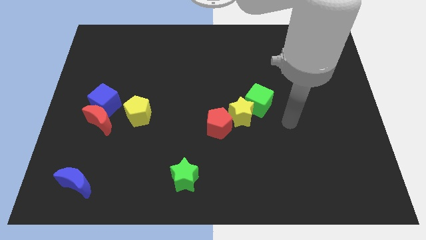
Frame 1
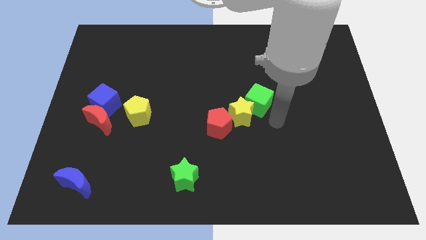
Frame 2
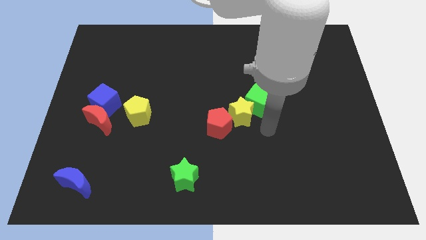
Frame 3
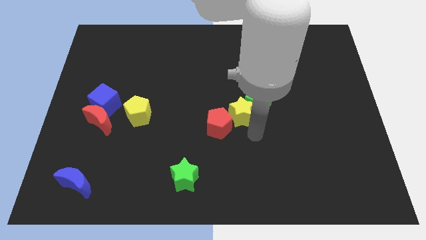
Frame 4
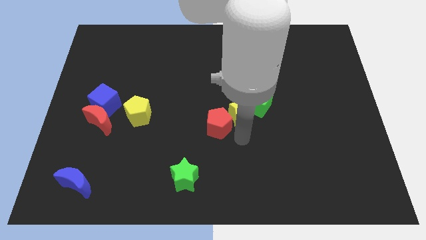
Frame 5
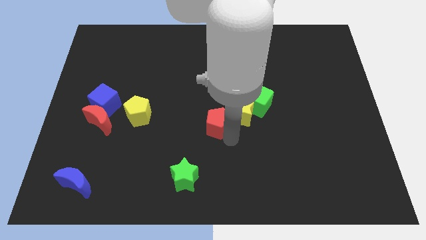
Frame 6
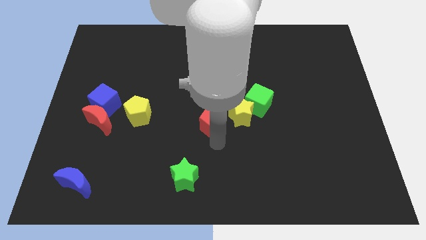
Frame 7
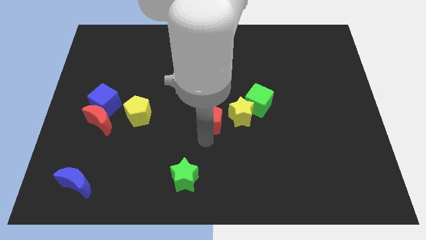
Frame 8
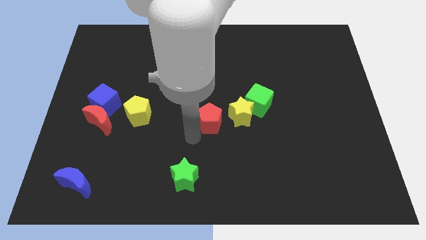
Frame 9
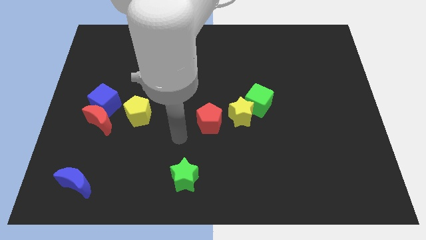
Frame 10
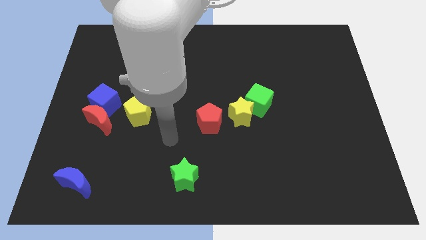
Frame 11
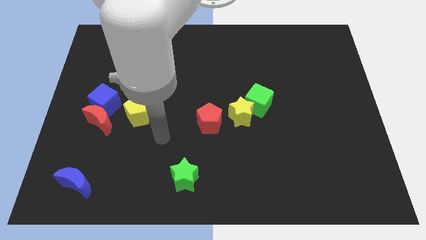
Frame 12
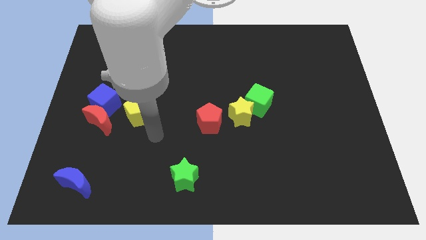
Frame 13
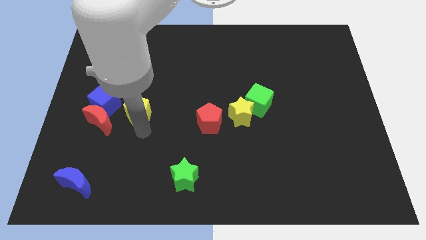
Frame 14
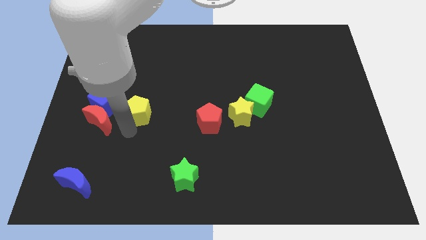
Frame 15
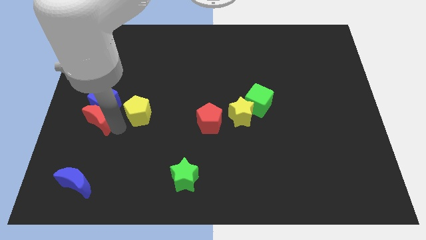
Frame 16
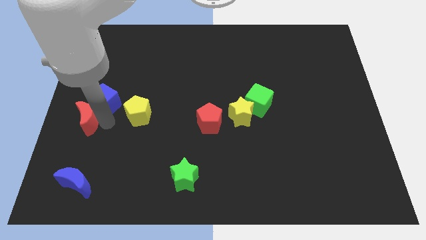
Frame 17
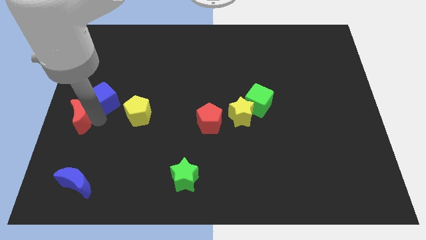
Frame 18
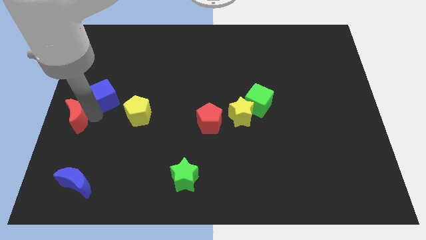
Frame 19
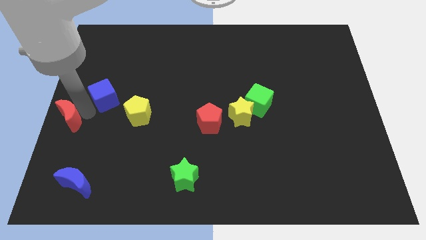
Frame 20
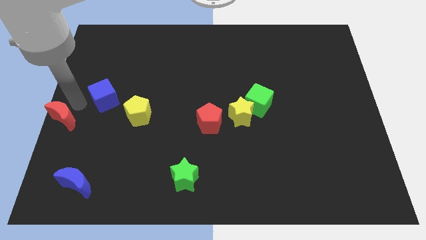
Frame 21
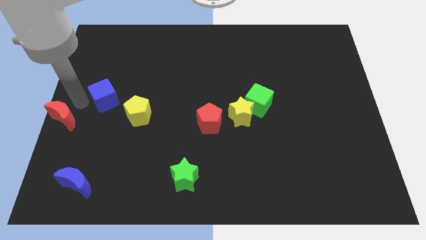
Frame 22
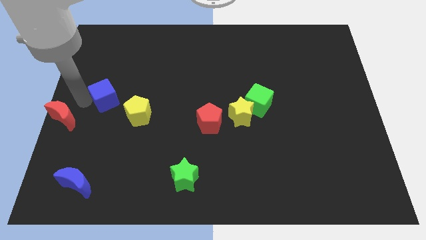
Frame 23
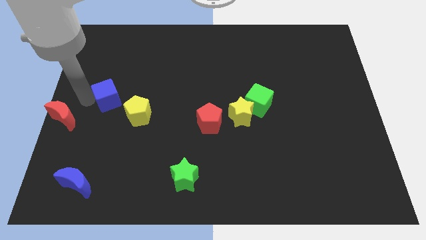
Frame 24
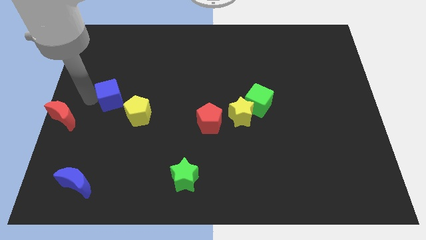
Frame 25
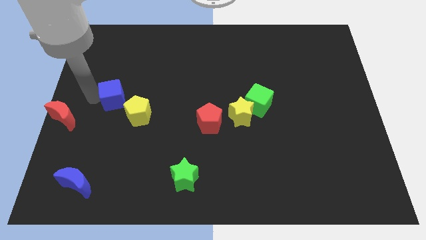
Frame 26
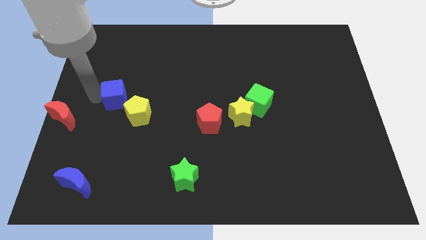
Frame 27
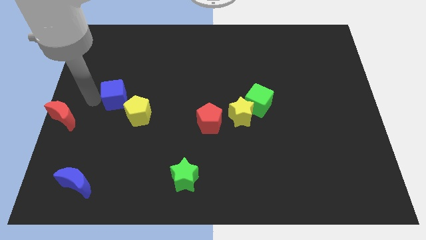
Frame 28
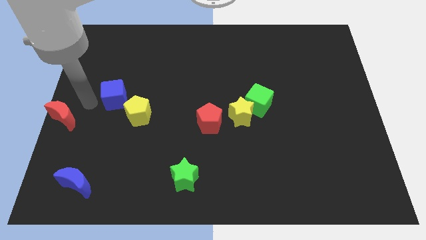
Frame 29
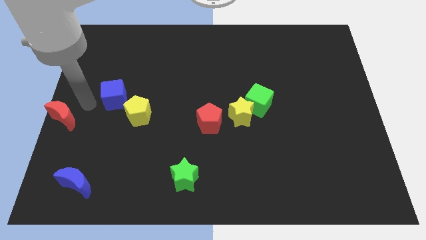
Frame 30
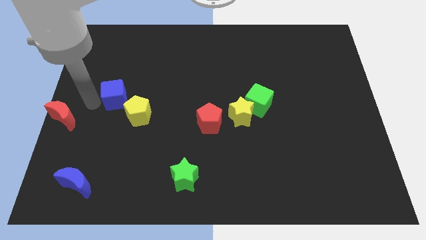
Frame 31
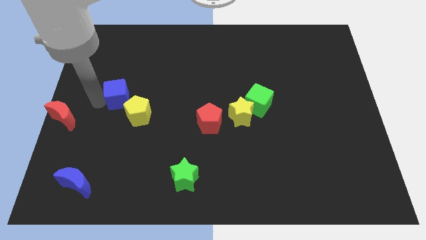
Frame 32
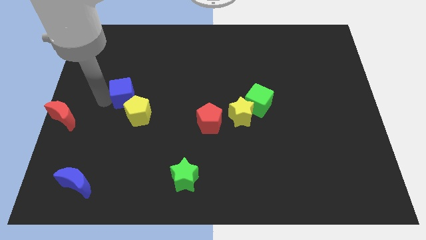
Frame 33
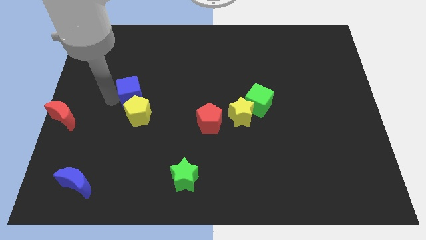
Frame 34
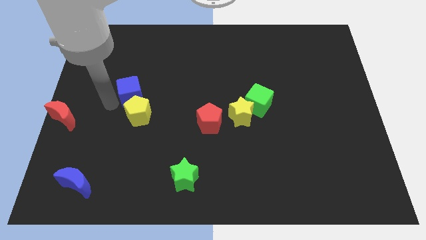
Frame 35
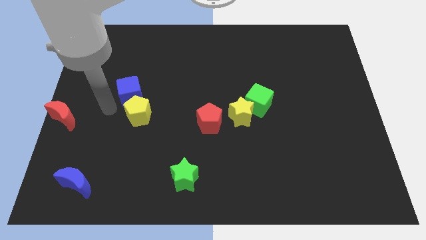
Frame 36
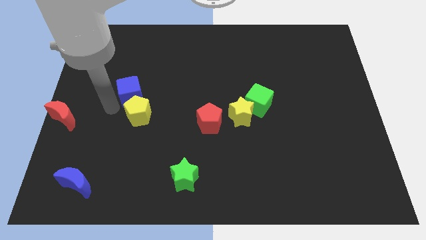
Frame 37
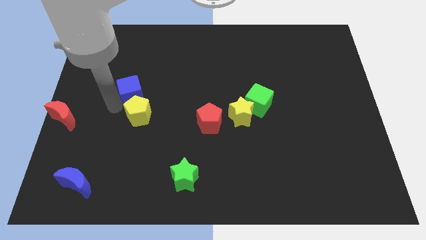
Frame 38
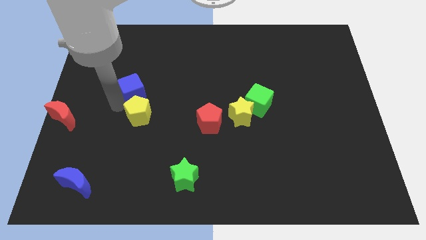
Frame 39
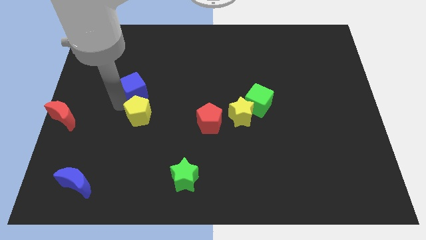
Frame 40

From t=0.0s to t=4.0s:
move the blue cube up and to the right diagonally somewhat

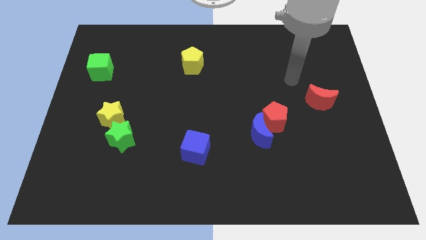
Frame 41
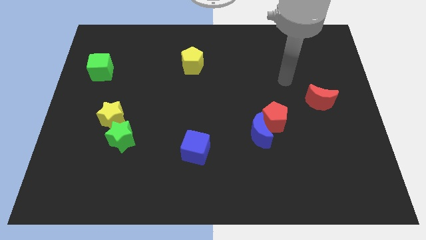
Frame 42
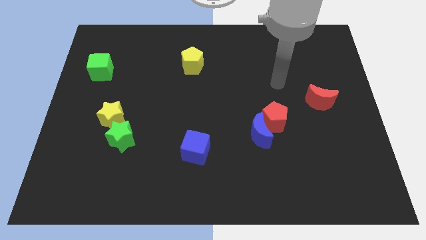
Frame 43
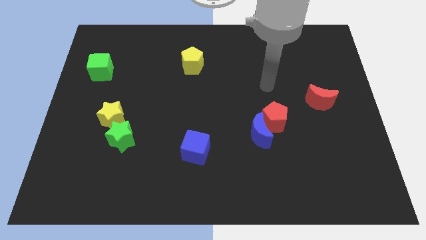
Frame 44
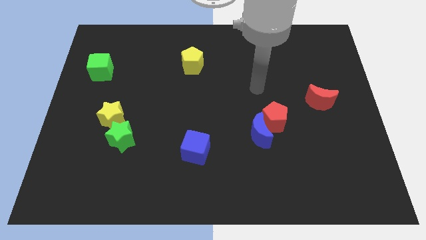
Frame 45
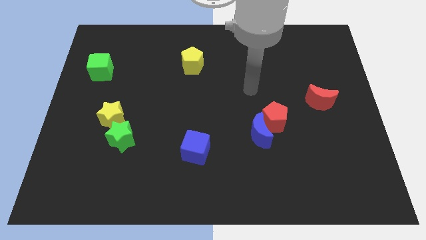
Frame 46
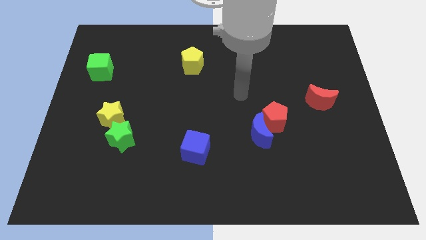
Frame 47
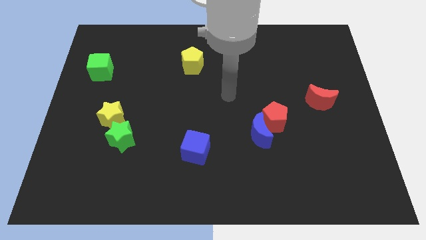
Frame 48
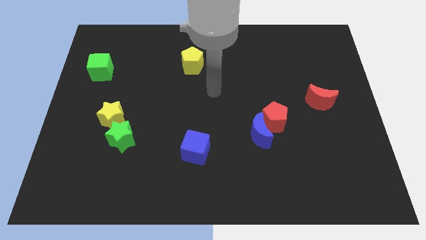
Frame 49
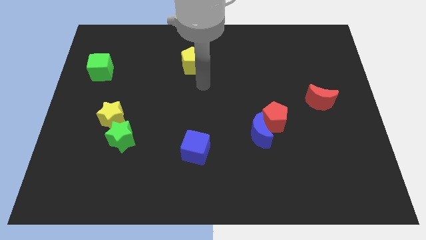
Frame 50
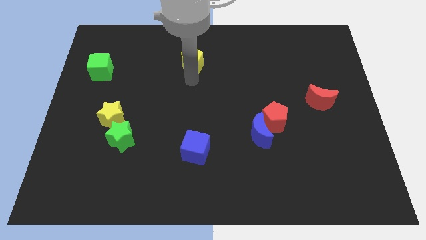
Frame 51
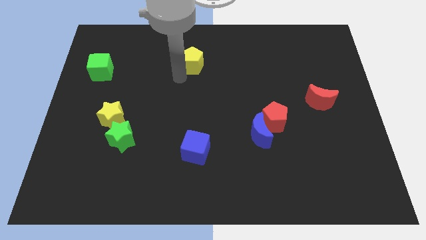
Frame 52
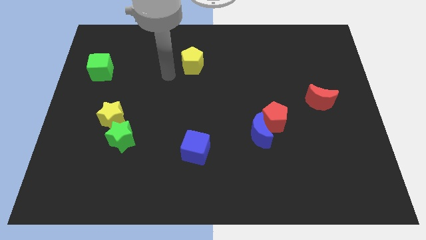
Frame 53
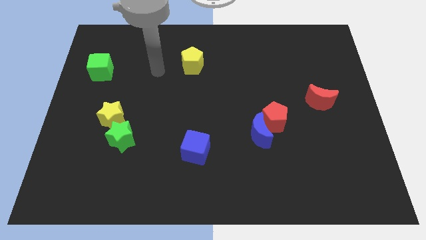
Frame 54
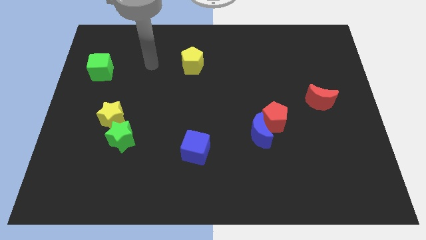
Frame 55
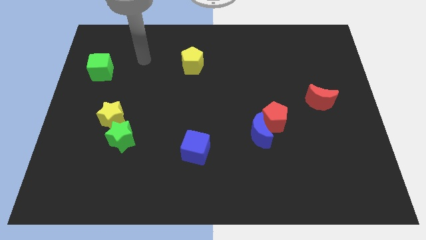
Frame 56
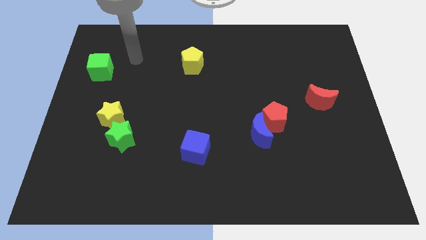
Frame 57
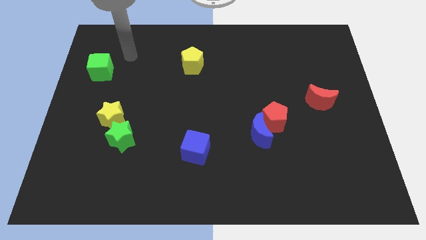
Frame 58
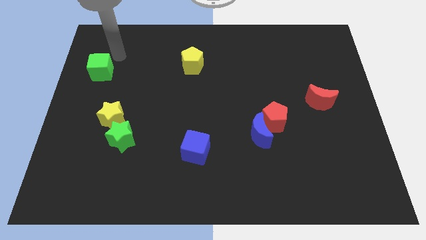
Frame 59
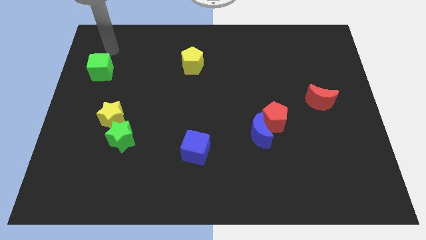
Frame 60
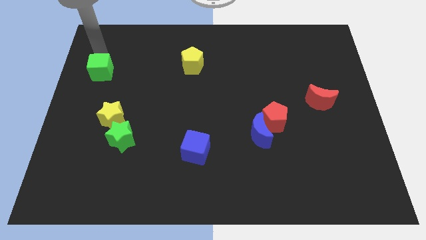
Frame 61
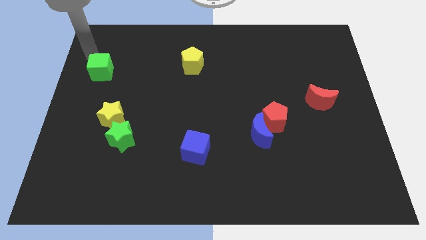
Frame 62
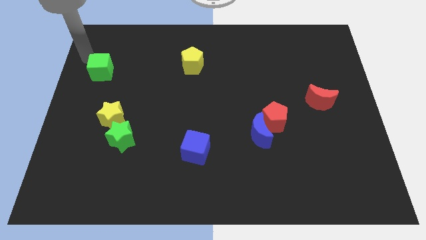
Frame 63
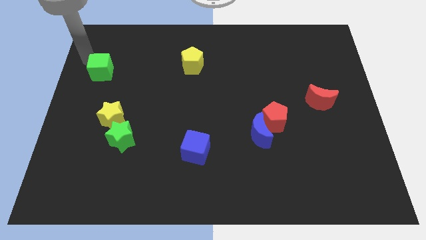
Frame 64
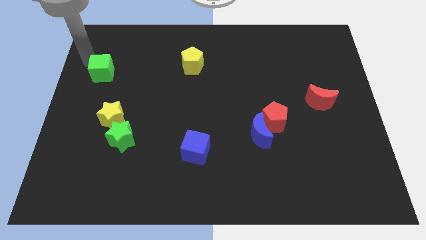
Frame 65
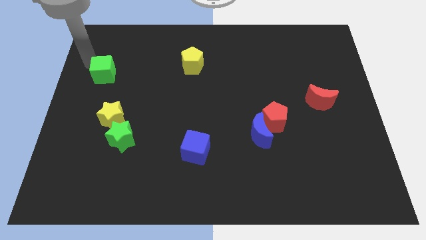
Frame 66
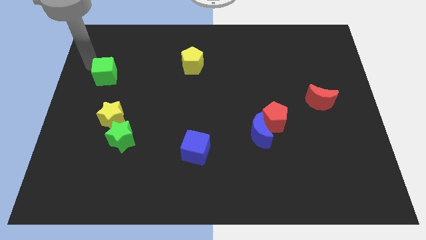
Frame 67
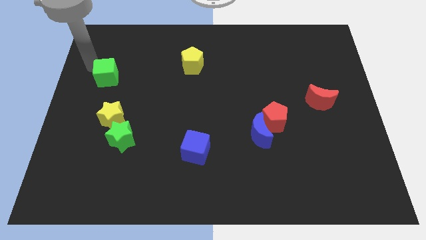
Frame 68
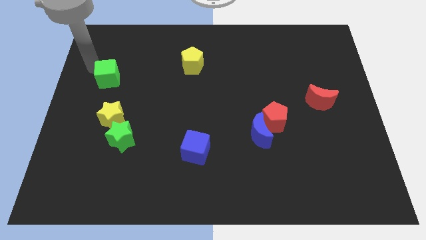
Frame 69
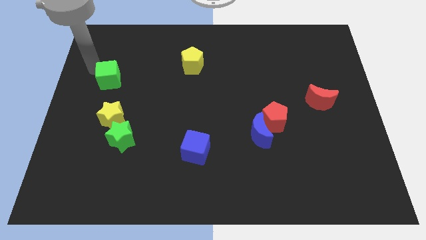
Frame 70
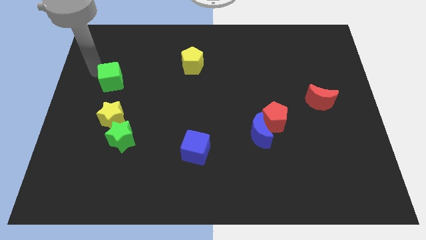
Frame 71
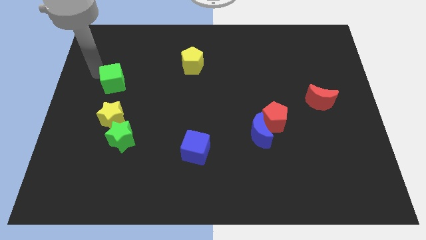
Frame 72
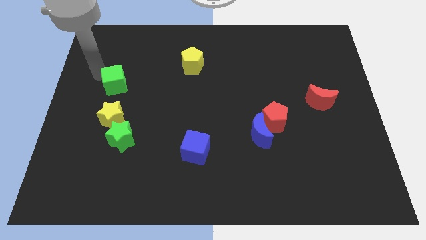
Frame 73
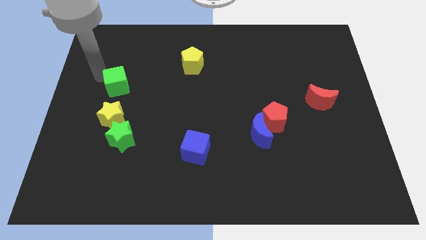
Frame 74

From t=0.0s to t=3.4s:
slightly push the green cube diagonally downwards and to the right

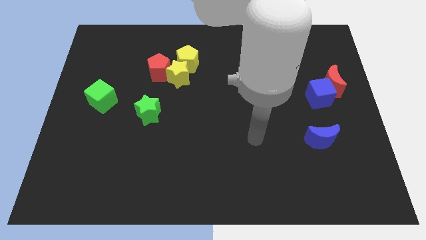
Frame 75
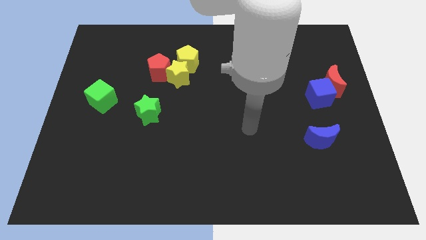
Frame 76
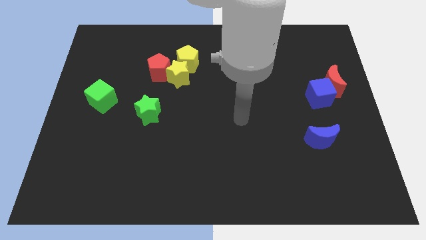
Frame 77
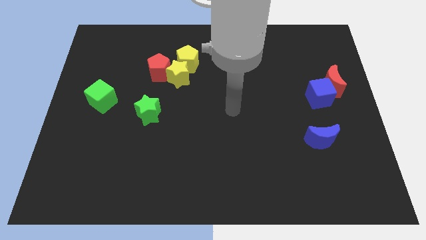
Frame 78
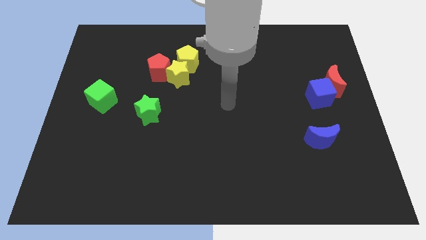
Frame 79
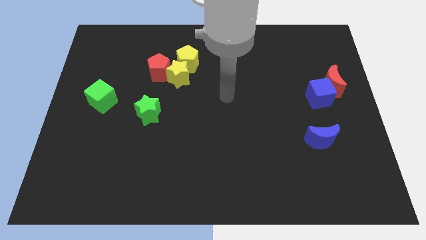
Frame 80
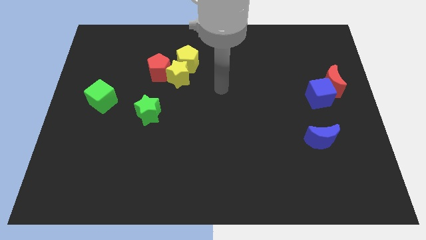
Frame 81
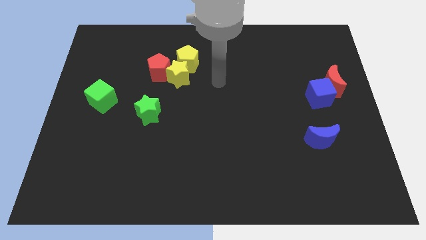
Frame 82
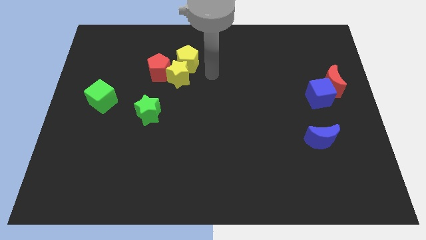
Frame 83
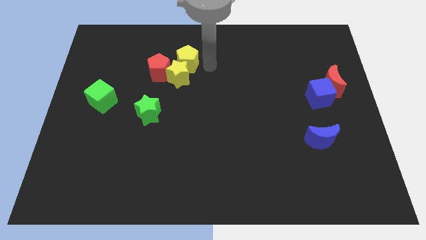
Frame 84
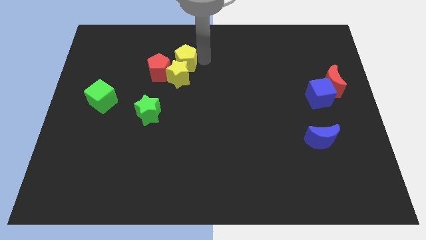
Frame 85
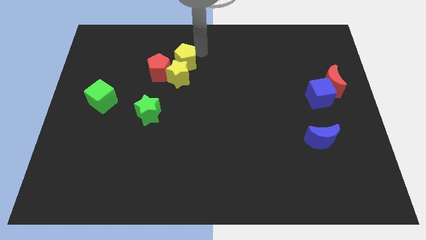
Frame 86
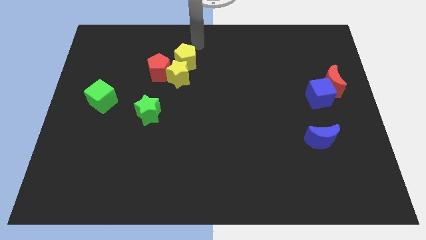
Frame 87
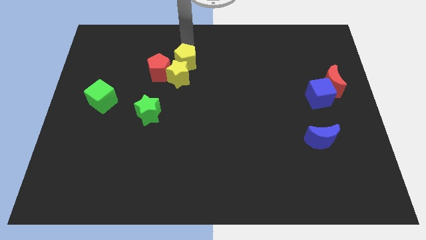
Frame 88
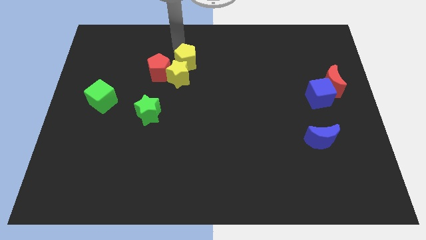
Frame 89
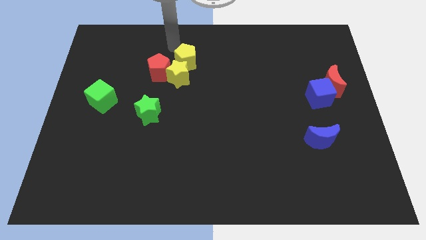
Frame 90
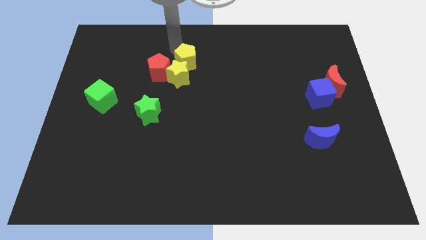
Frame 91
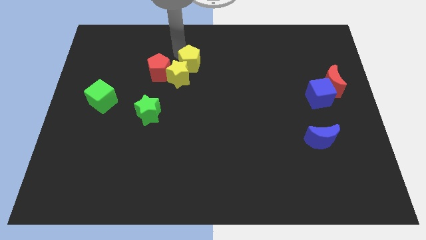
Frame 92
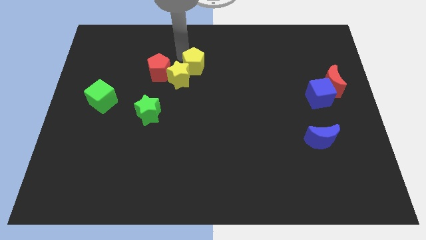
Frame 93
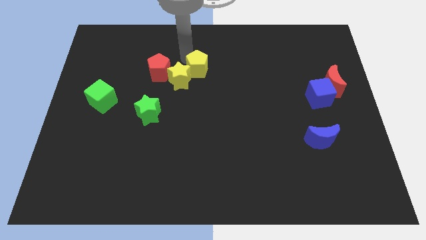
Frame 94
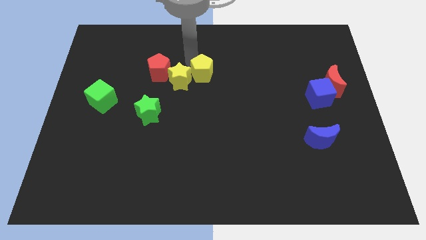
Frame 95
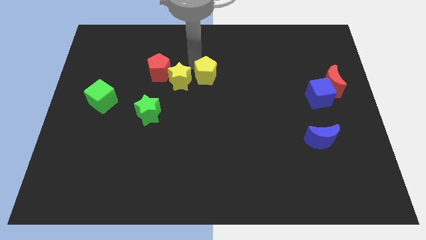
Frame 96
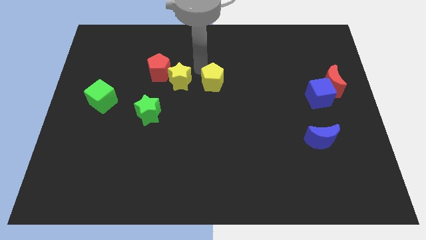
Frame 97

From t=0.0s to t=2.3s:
slightly slide the yellow pentagon diagonally down and to the right
